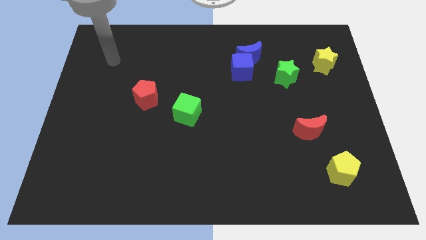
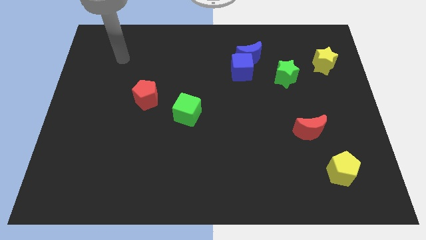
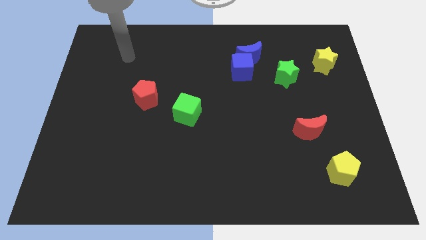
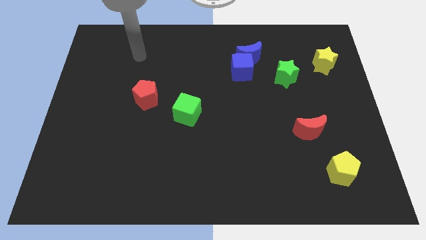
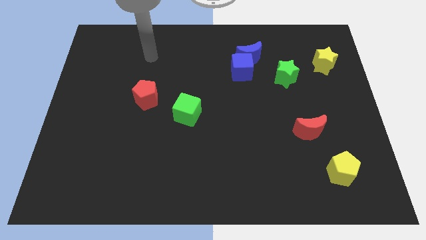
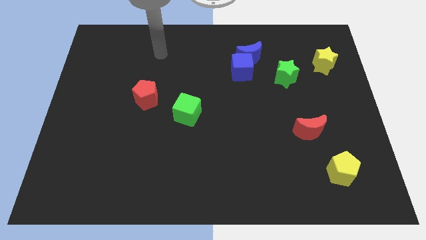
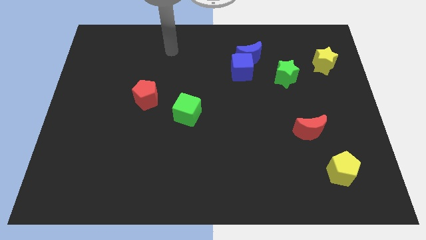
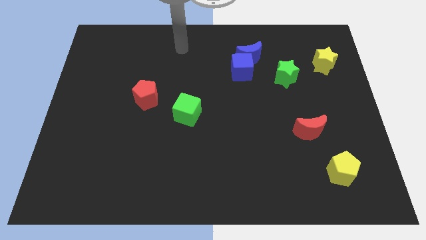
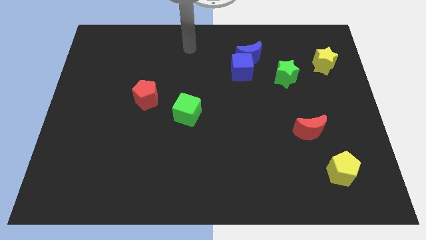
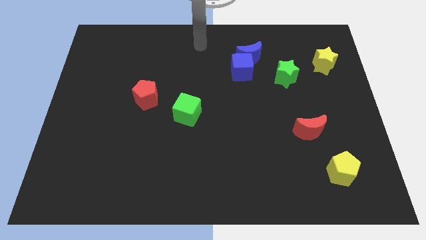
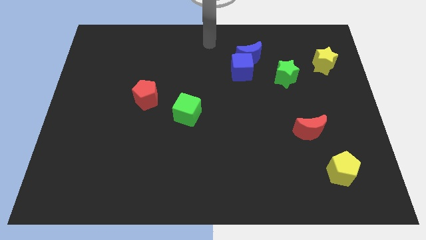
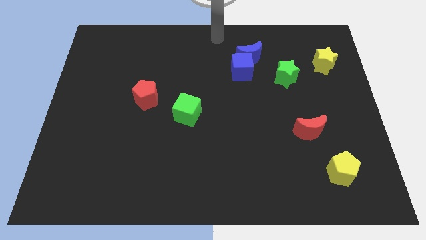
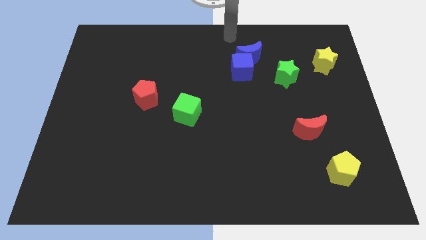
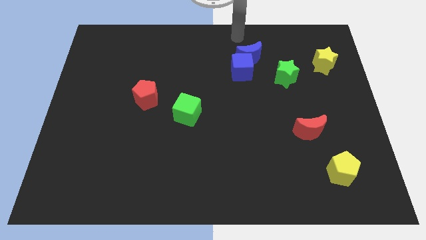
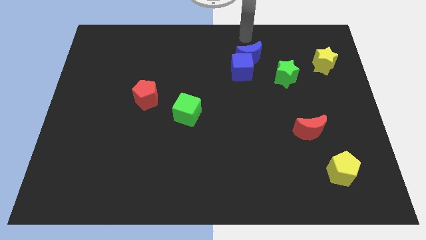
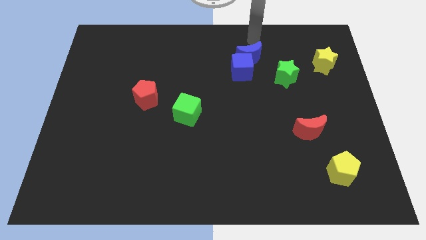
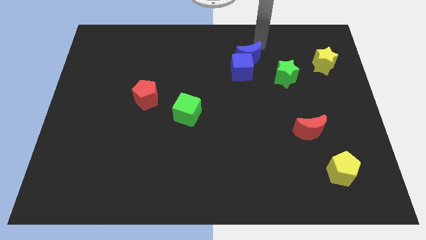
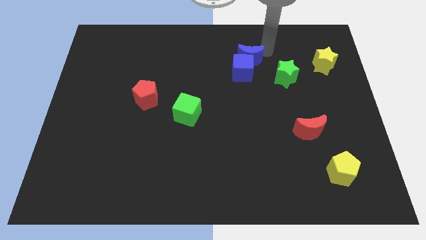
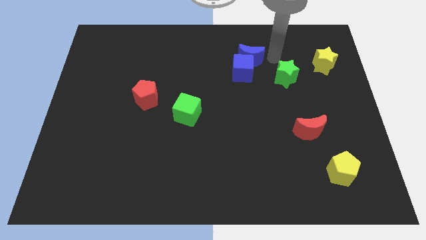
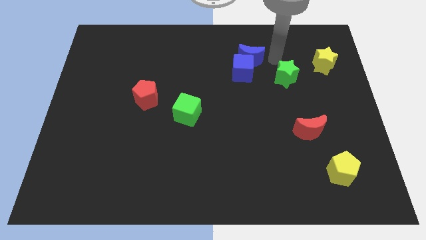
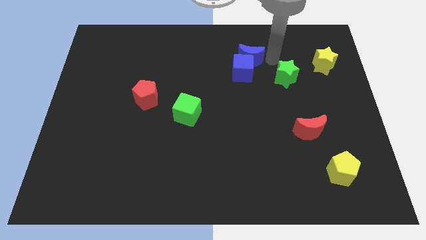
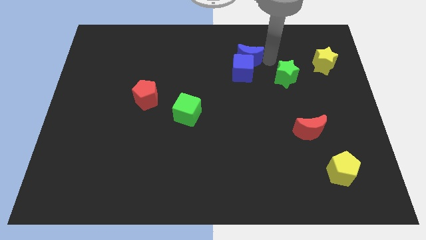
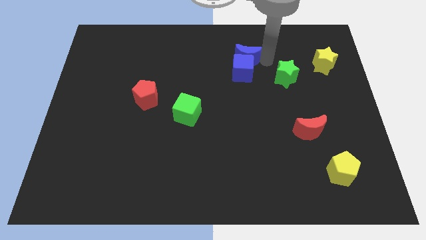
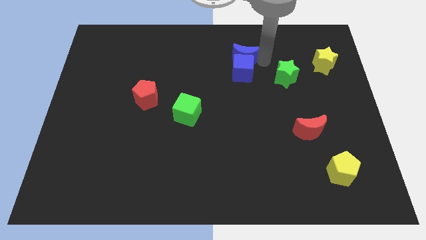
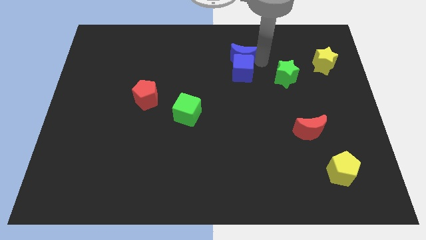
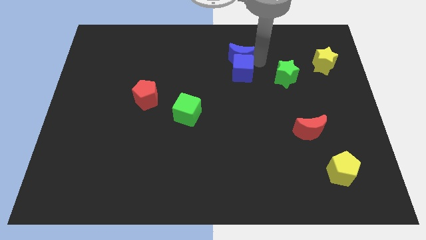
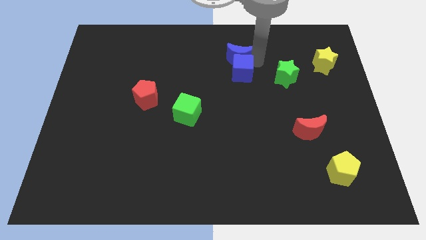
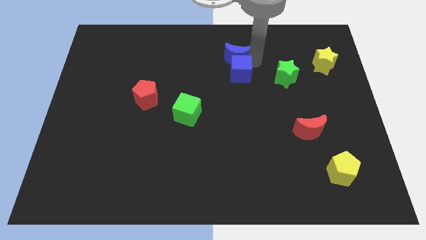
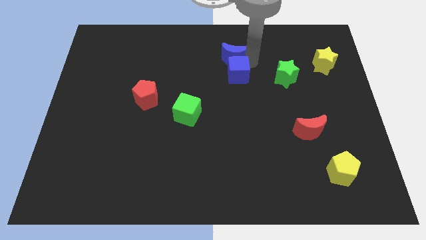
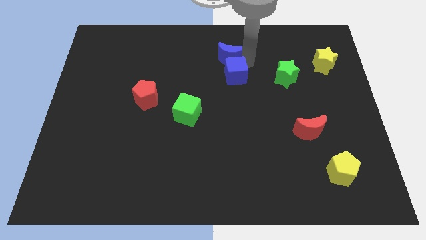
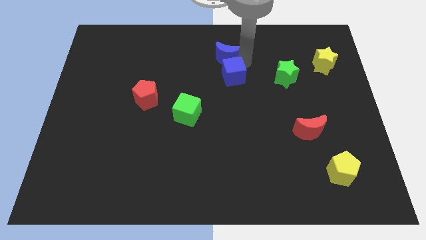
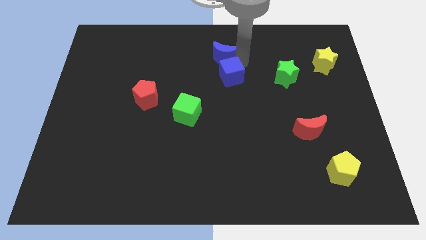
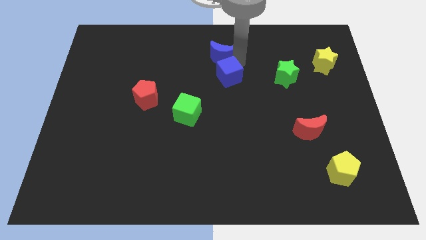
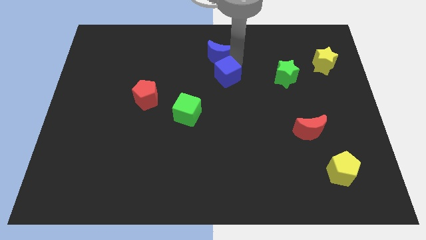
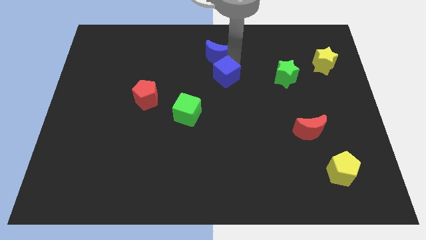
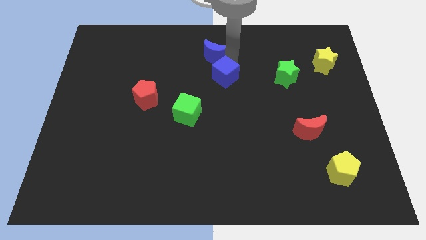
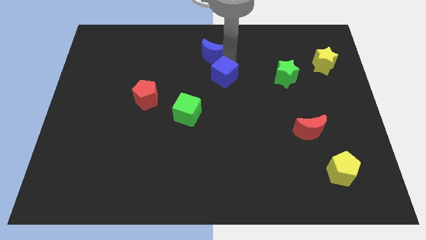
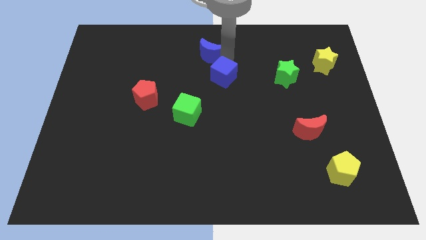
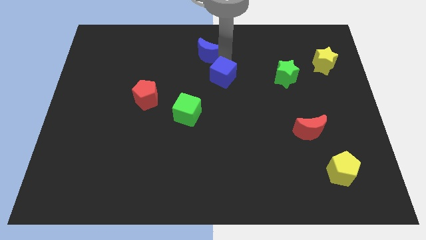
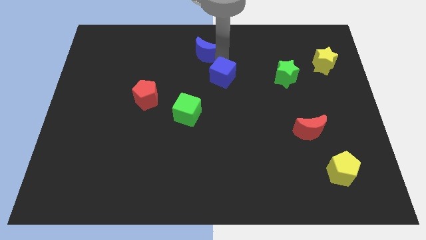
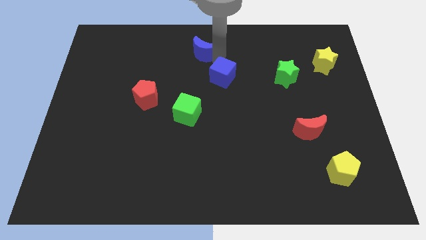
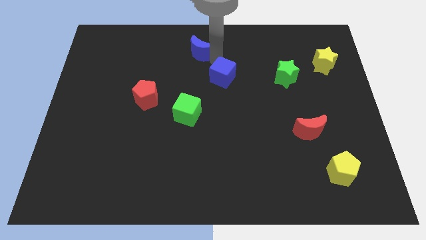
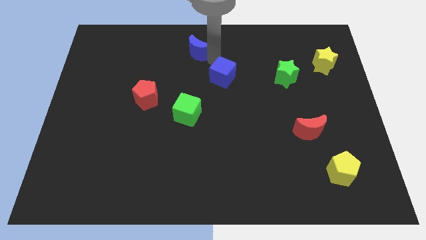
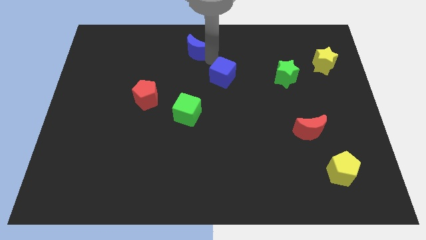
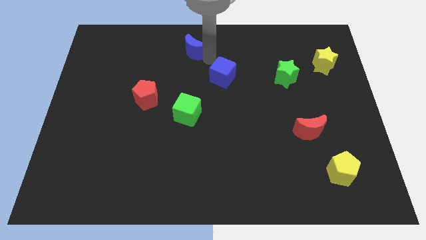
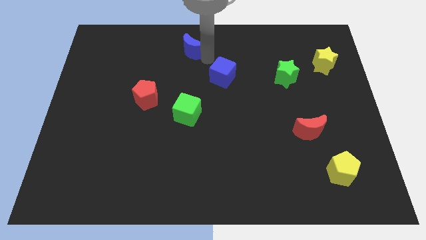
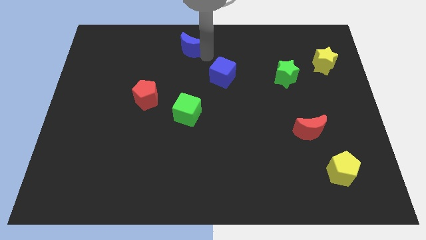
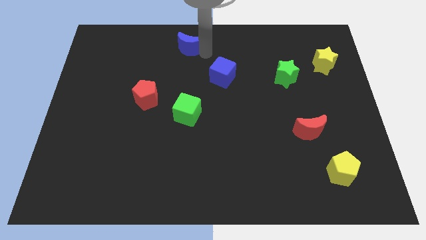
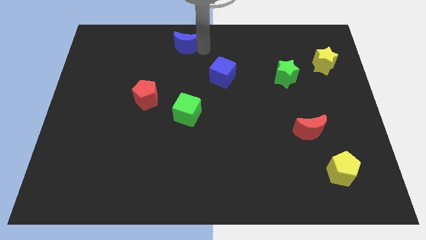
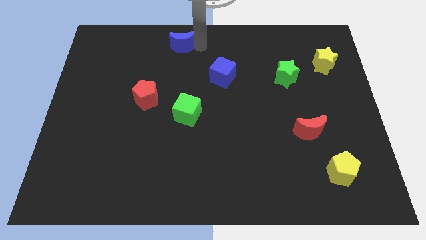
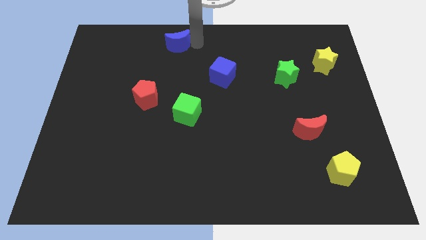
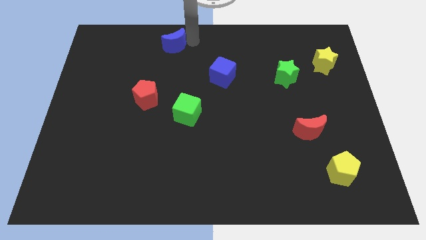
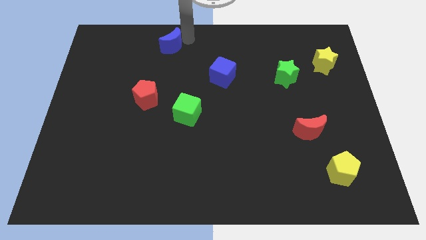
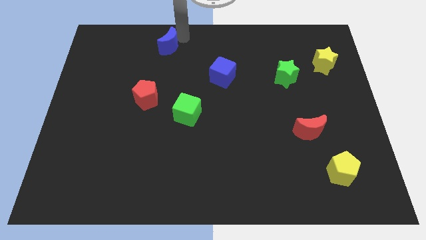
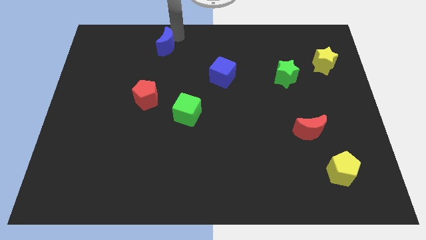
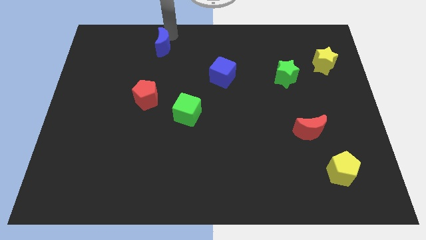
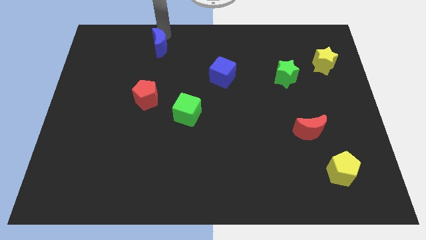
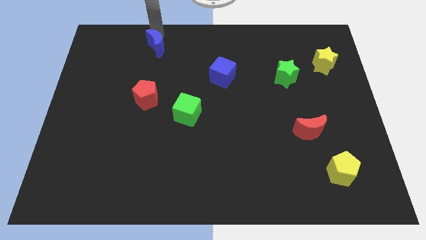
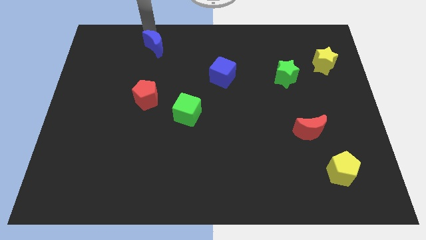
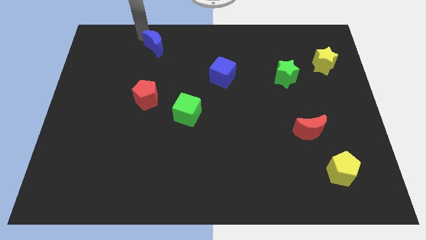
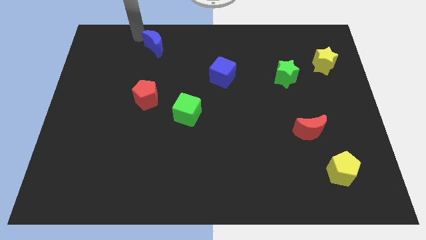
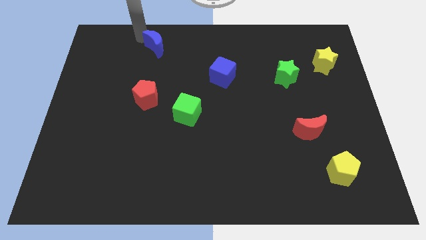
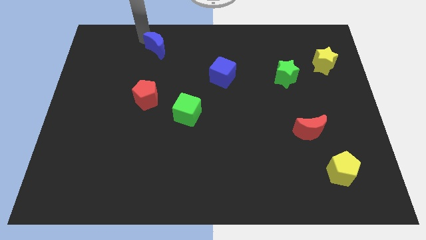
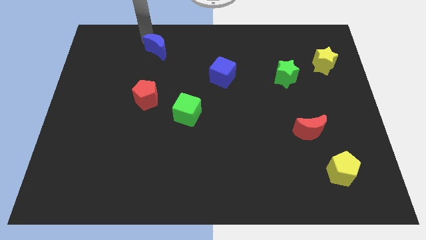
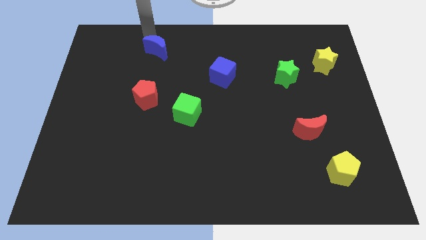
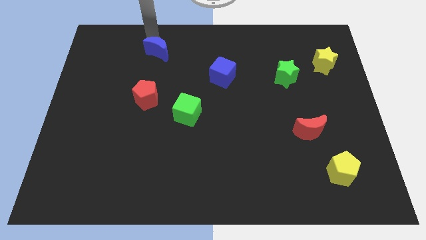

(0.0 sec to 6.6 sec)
slide the blue moon to the top of the red pentagon

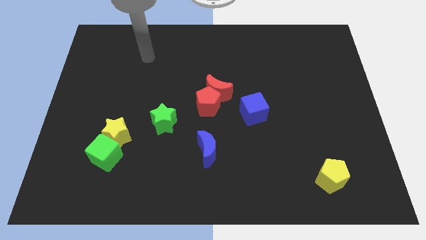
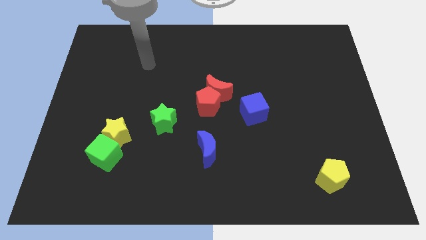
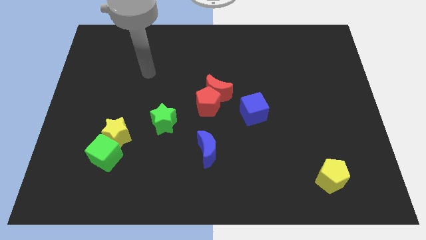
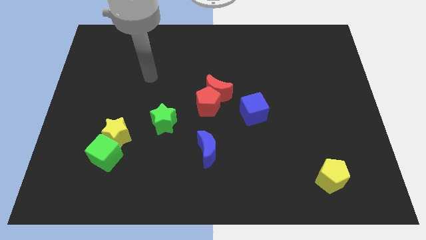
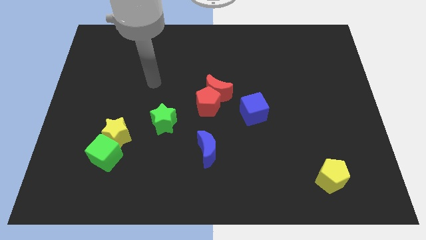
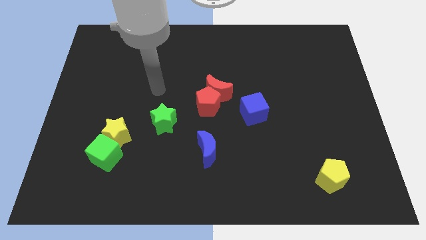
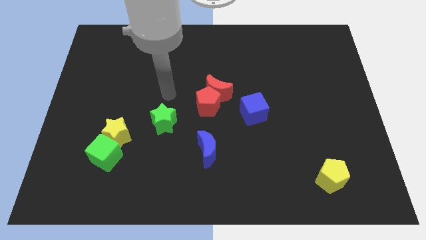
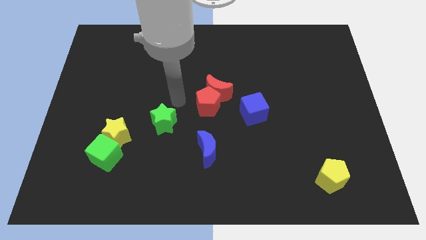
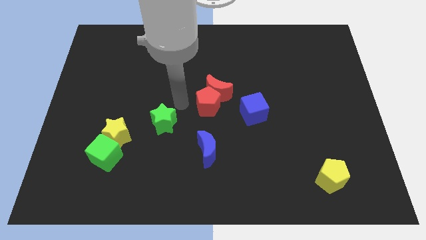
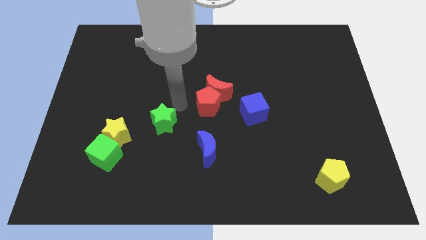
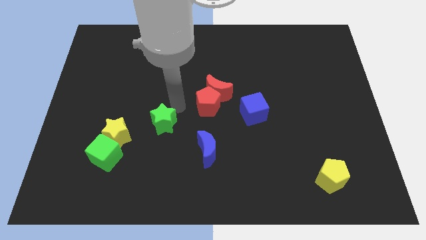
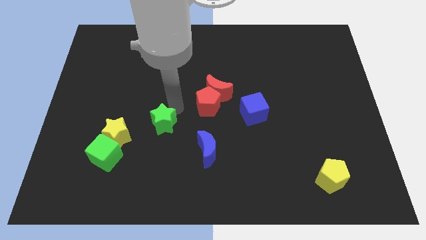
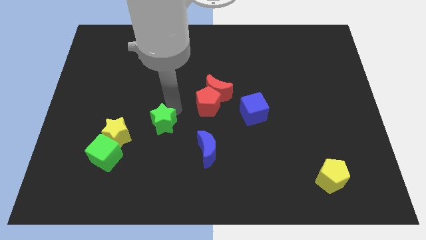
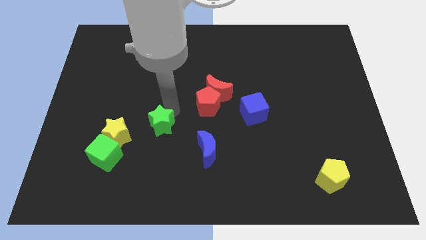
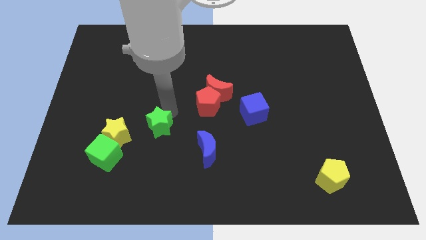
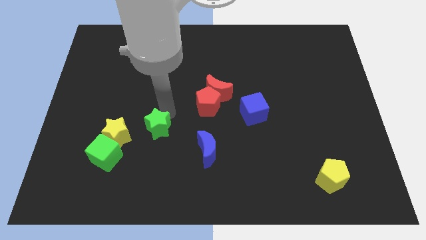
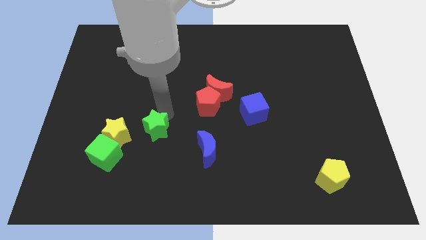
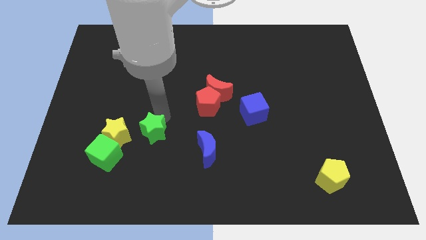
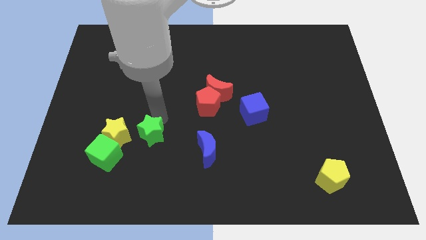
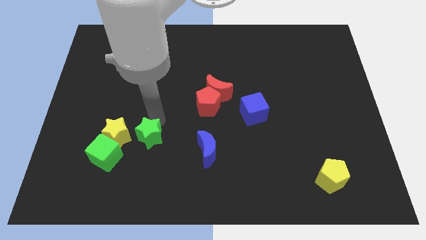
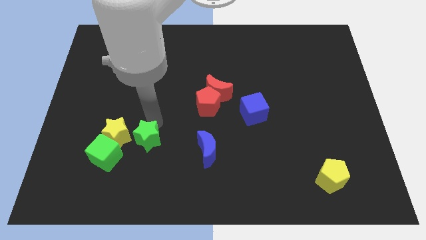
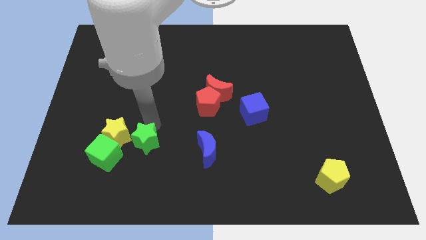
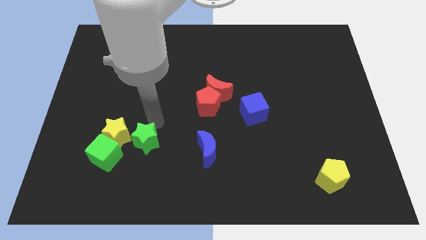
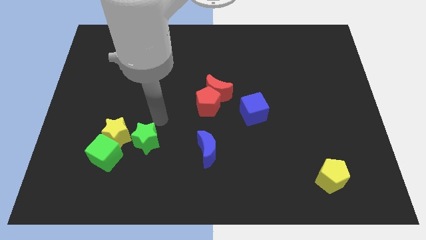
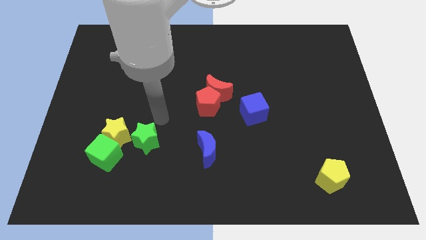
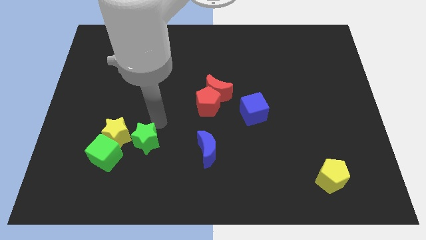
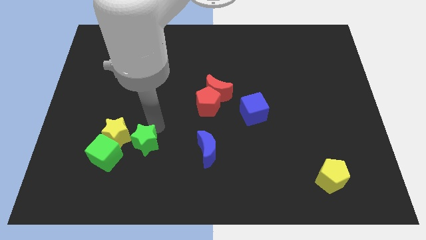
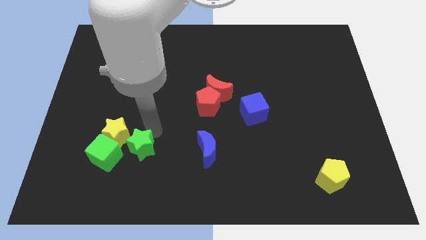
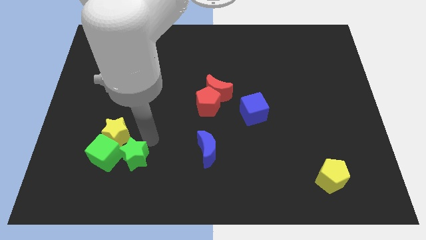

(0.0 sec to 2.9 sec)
move the green star to the bottom side of the yellow star
